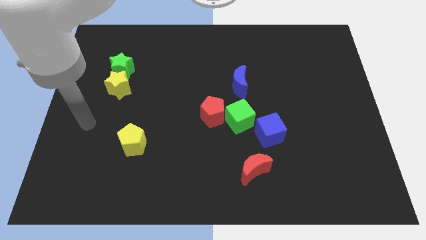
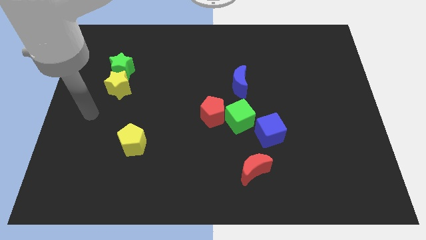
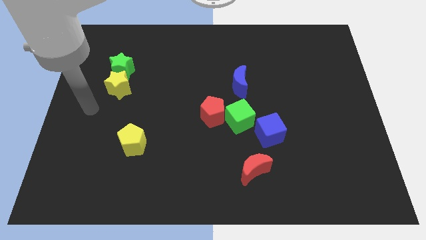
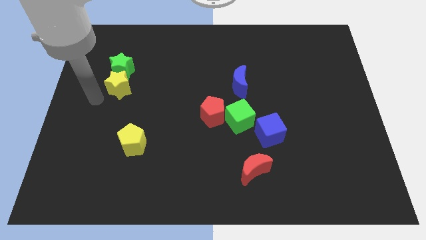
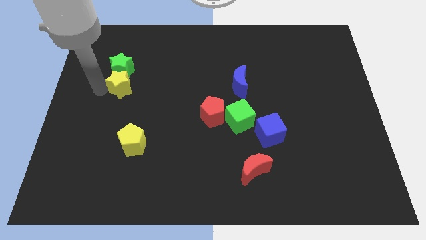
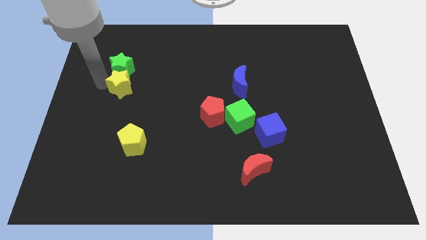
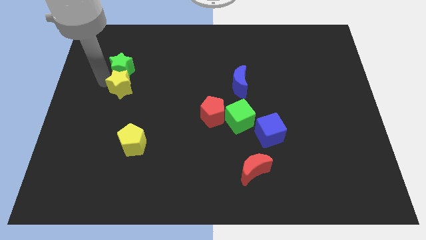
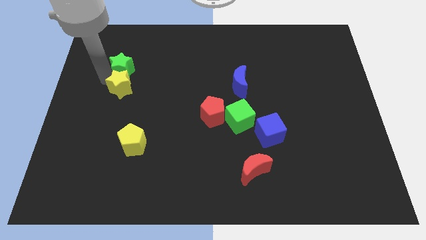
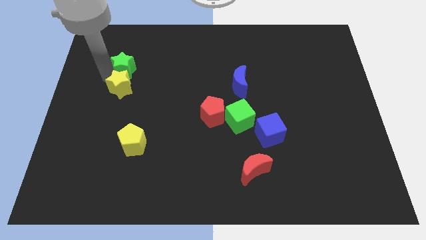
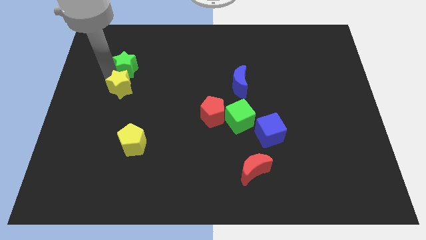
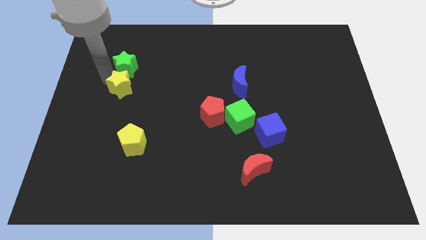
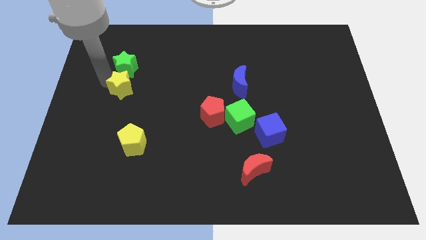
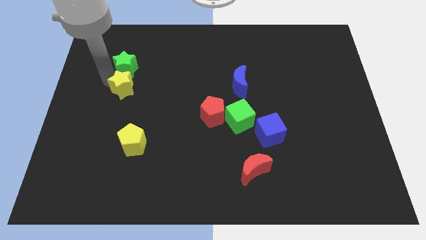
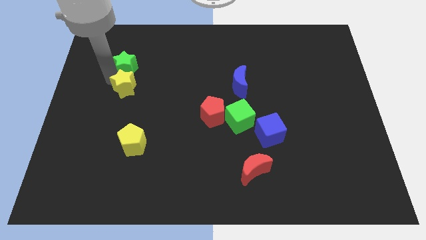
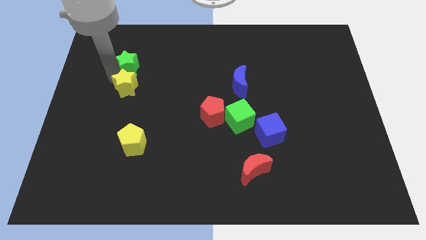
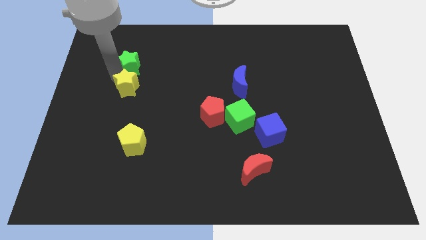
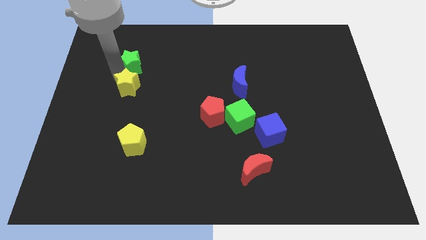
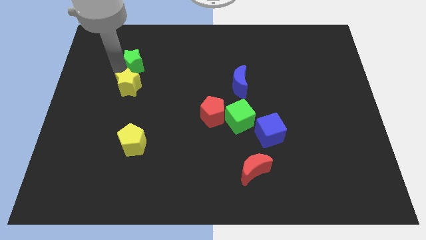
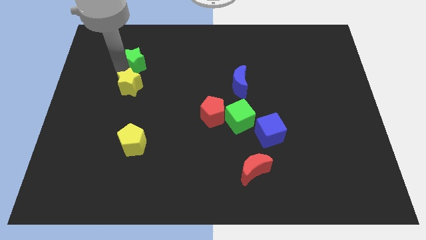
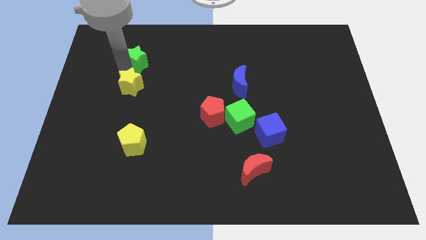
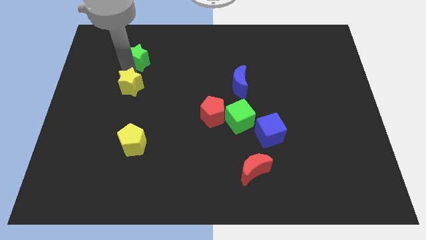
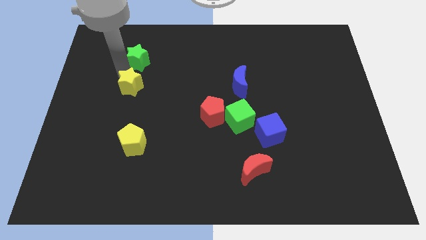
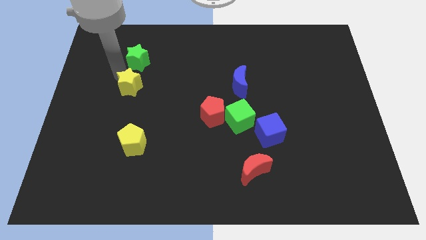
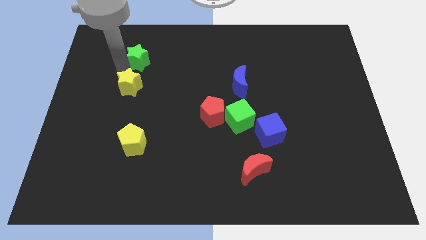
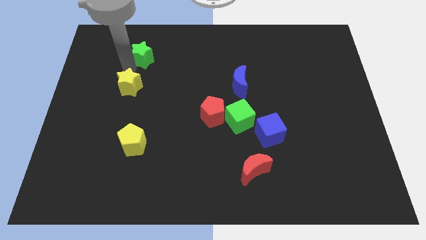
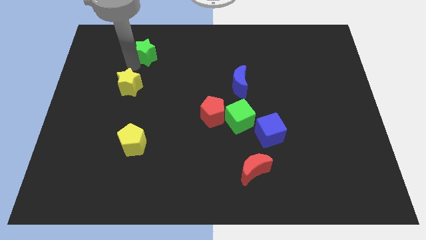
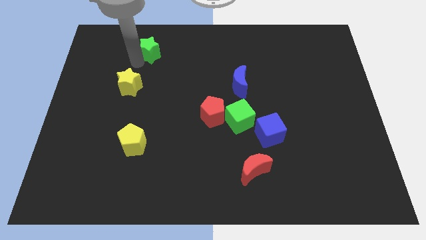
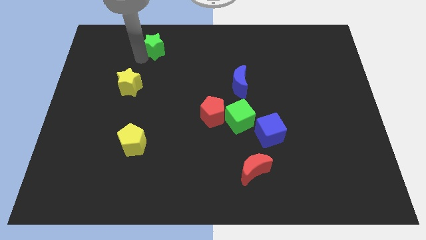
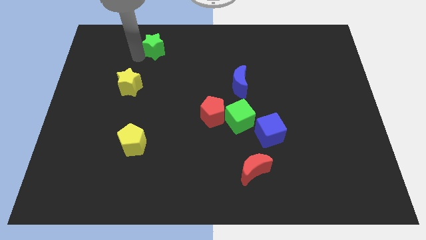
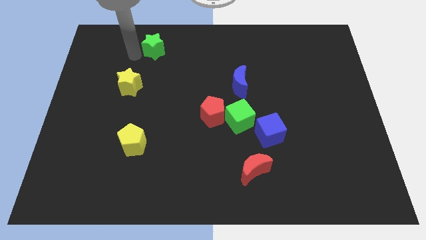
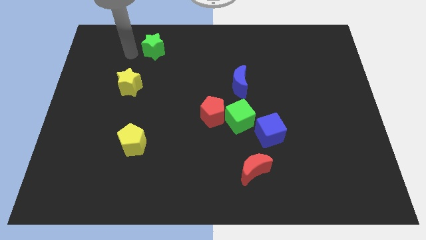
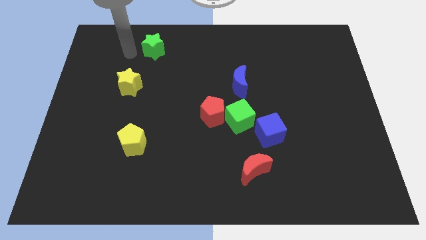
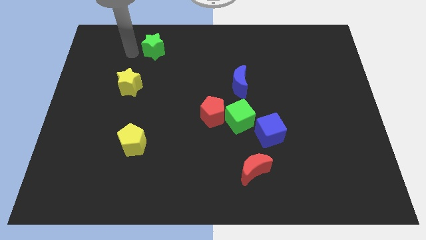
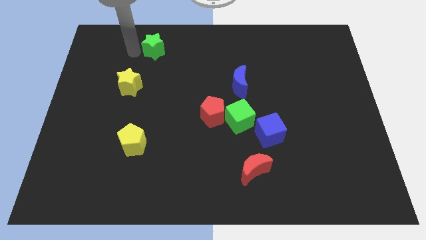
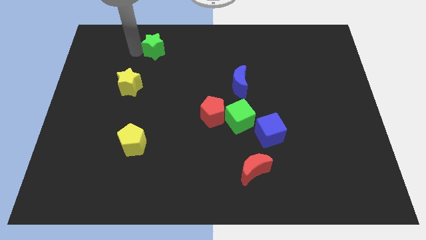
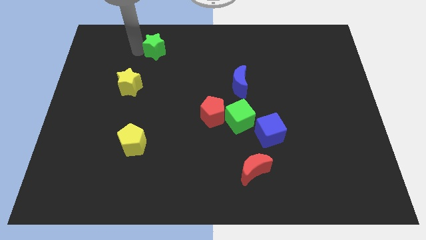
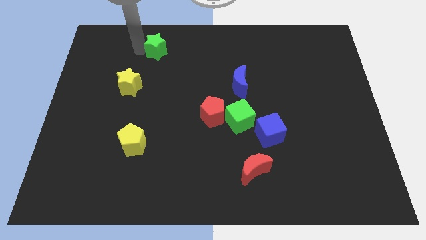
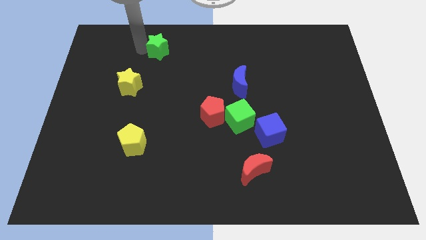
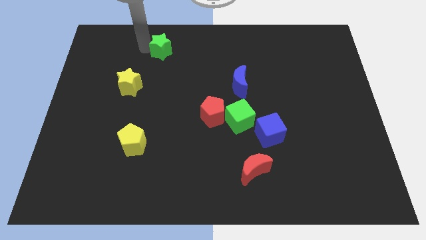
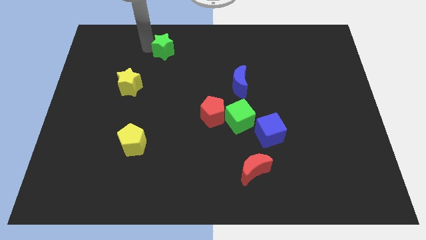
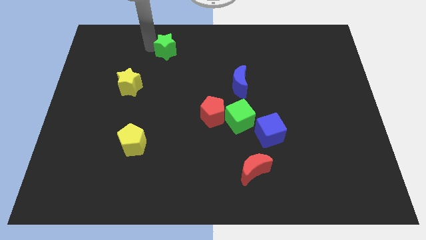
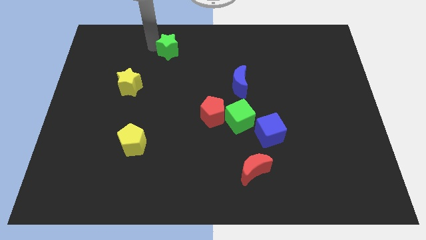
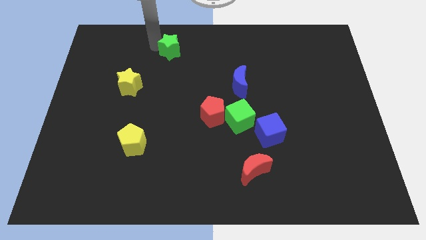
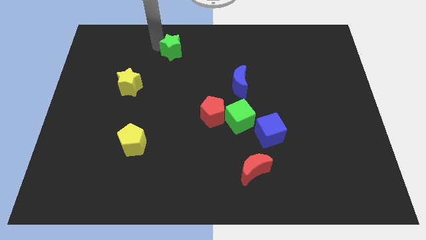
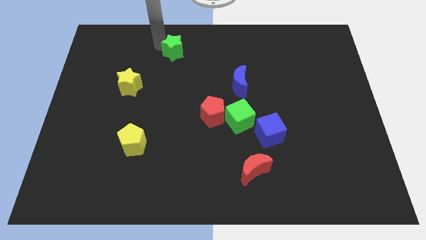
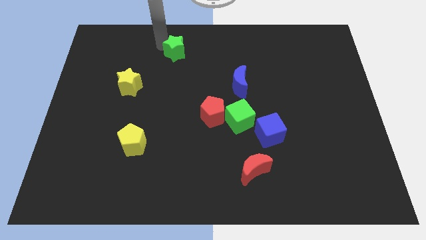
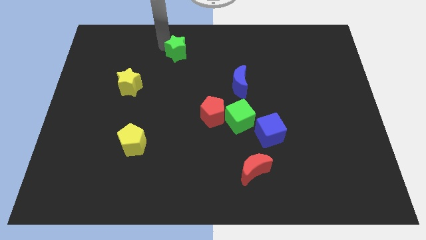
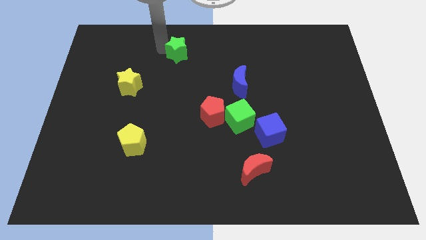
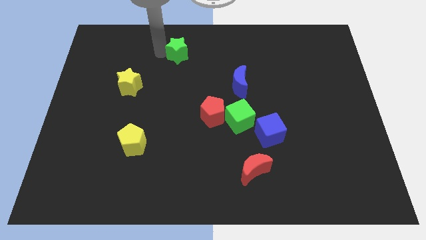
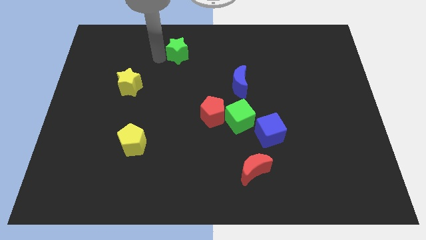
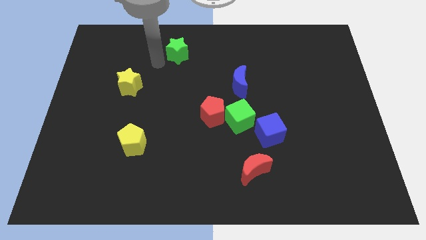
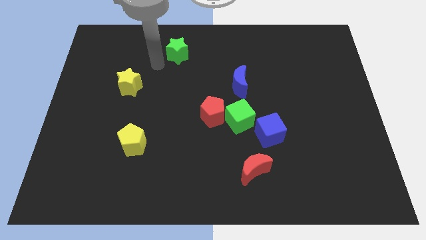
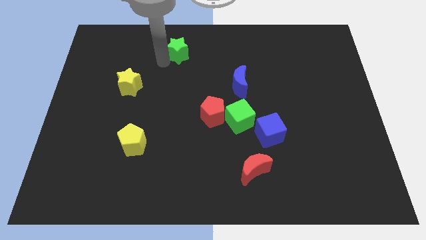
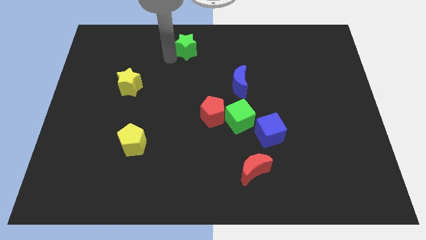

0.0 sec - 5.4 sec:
put the green star to the towards your base
